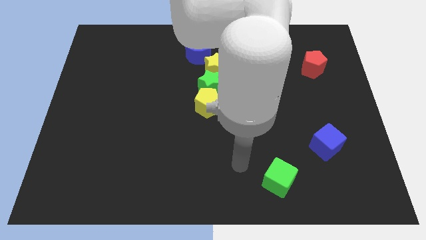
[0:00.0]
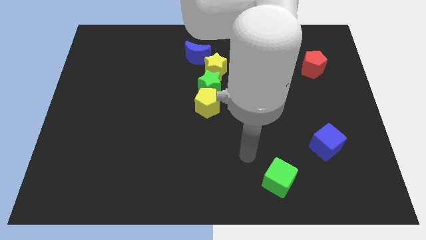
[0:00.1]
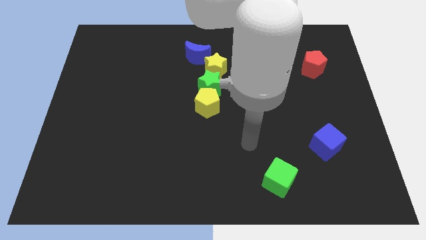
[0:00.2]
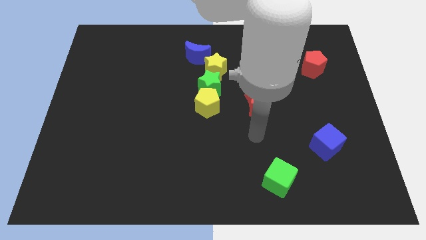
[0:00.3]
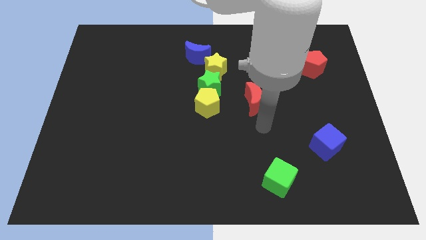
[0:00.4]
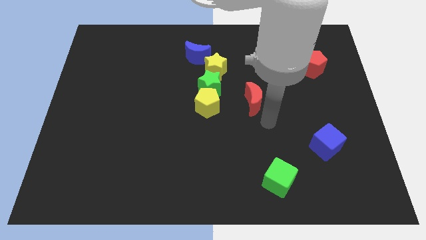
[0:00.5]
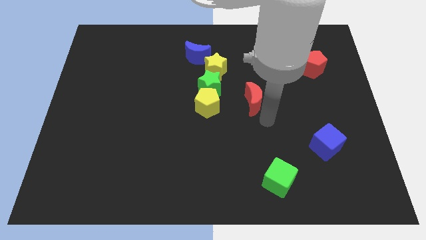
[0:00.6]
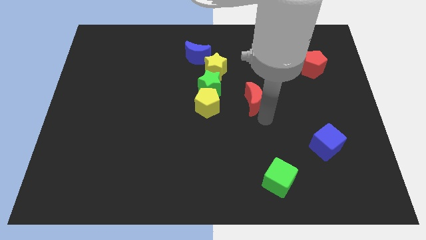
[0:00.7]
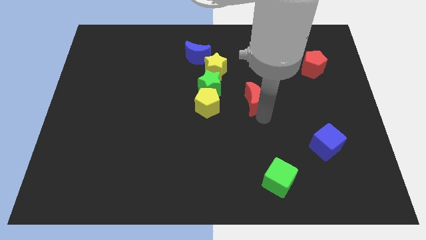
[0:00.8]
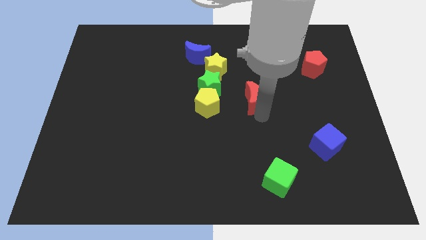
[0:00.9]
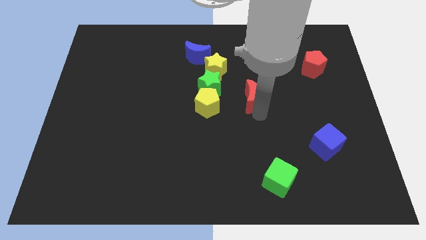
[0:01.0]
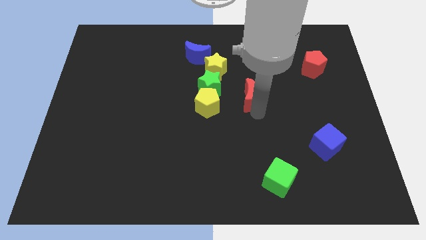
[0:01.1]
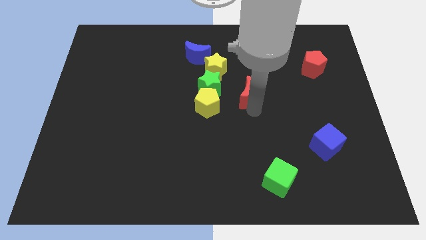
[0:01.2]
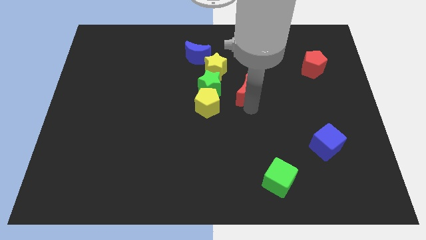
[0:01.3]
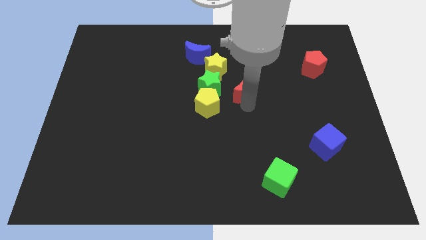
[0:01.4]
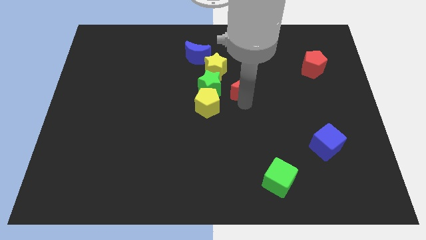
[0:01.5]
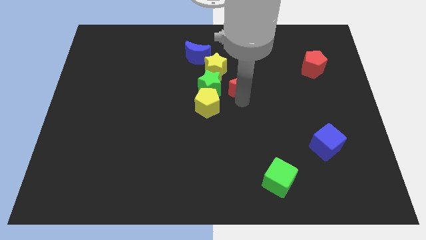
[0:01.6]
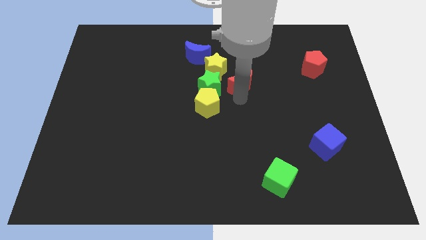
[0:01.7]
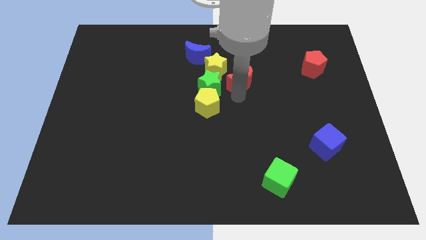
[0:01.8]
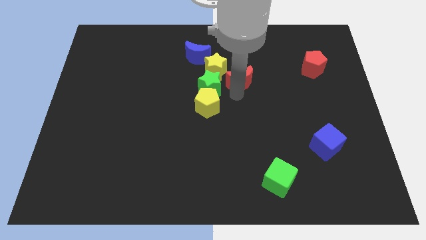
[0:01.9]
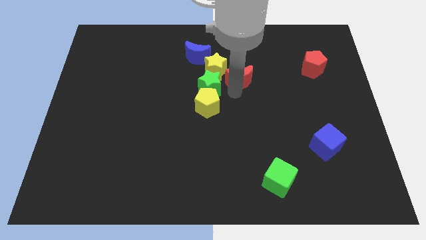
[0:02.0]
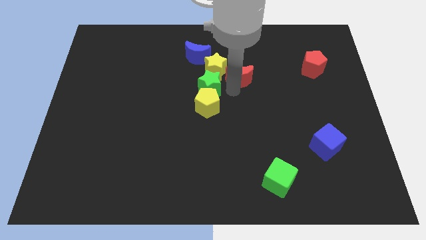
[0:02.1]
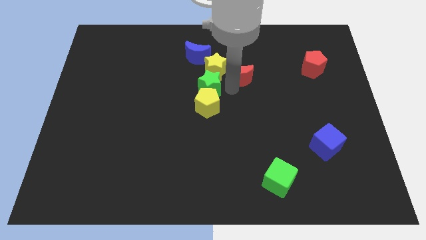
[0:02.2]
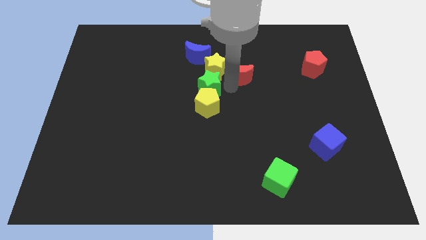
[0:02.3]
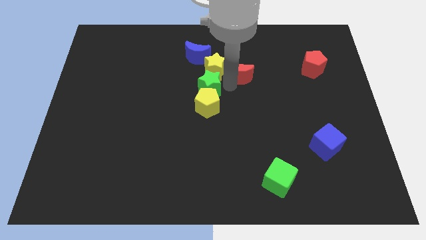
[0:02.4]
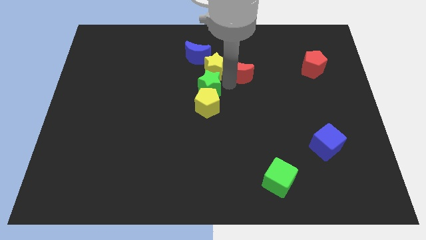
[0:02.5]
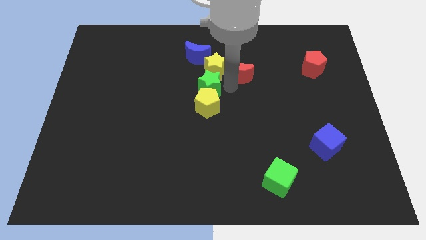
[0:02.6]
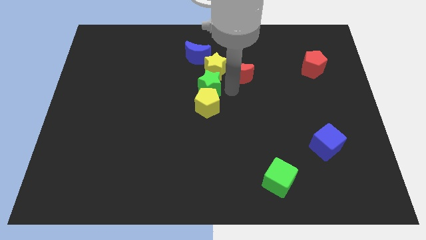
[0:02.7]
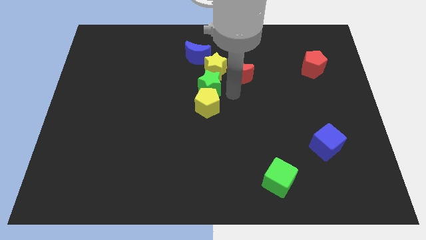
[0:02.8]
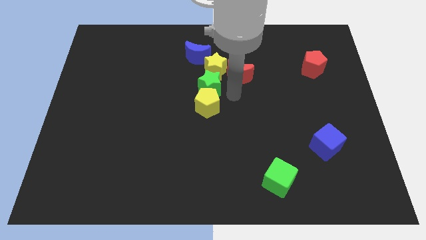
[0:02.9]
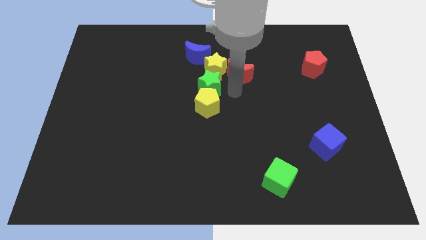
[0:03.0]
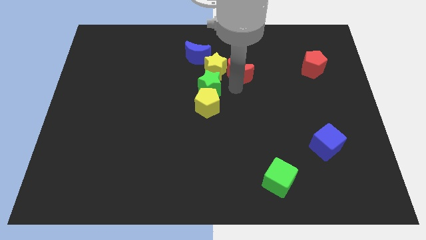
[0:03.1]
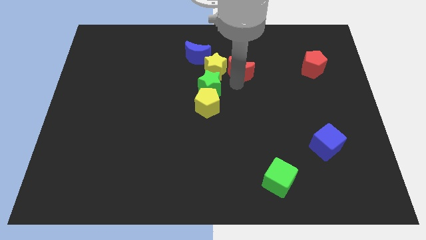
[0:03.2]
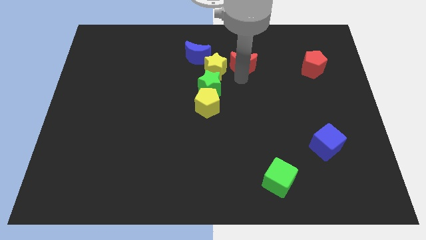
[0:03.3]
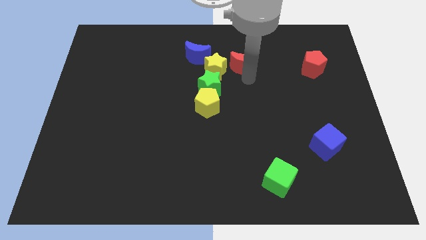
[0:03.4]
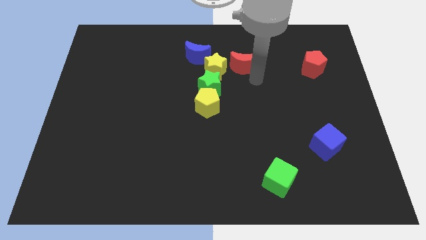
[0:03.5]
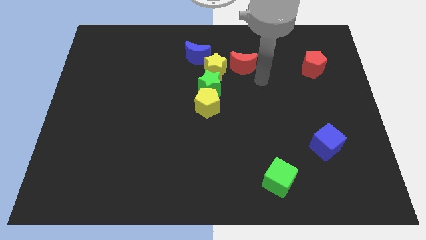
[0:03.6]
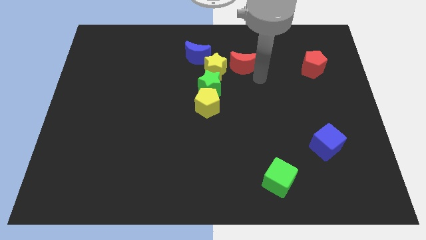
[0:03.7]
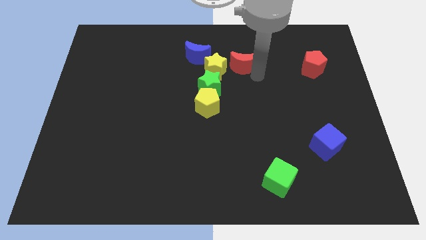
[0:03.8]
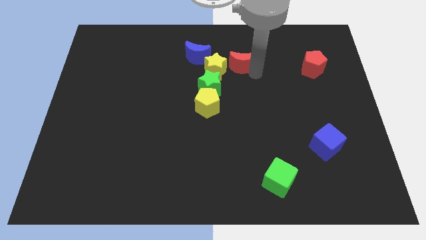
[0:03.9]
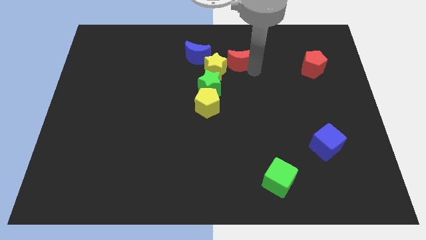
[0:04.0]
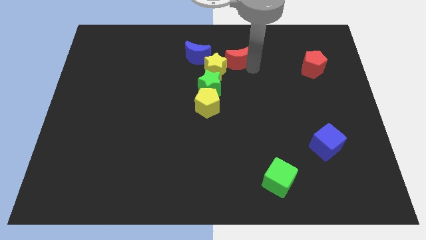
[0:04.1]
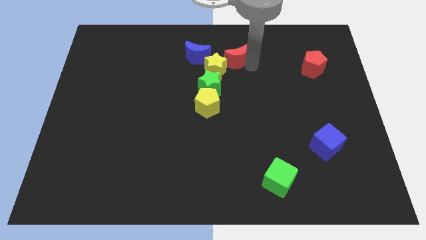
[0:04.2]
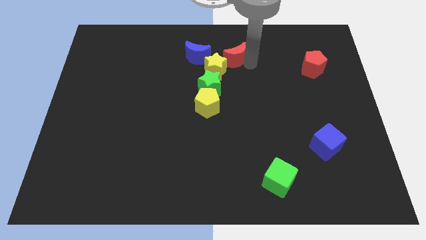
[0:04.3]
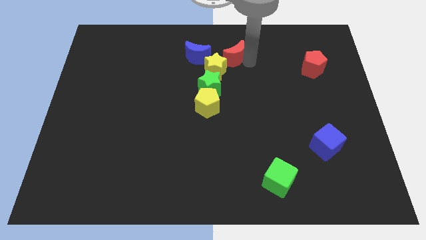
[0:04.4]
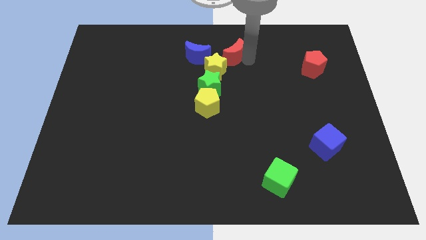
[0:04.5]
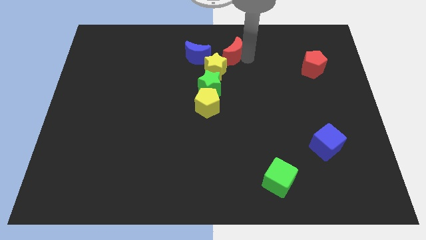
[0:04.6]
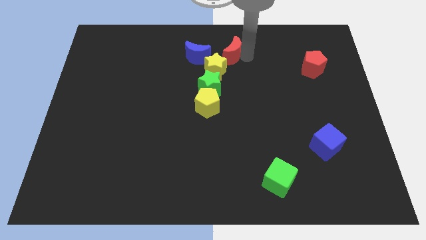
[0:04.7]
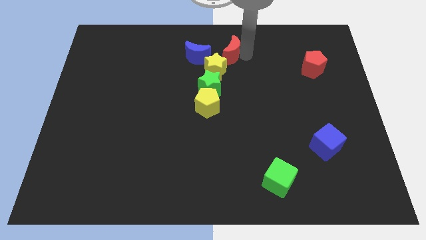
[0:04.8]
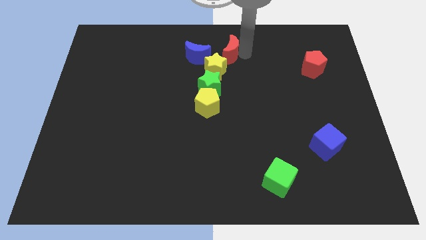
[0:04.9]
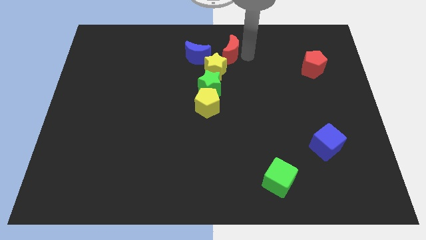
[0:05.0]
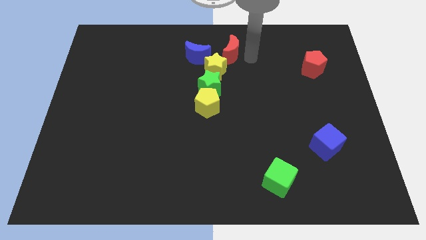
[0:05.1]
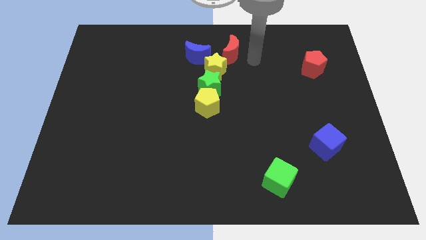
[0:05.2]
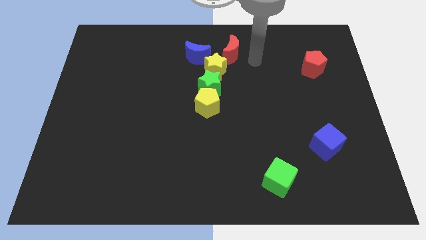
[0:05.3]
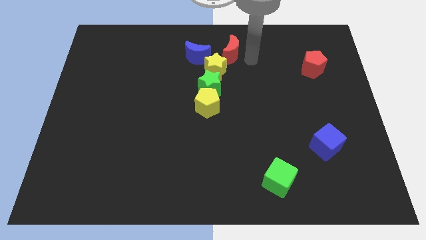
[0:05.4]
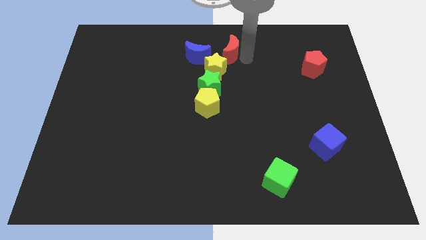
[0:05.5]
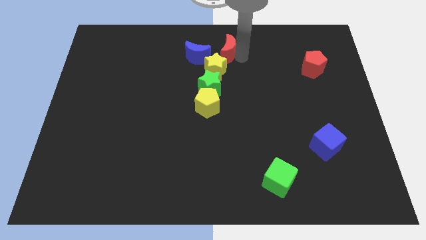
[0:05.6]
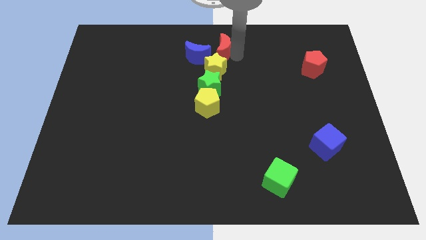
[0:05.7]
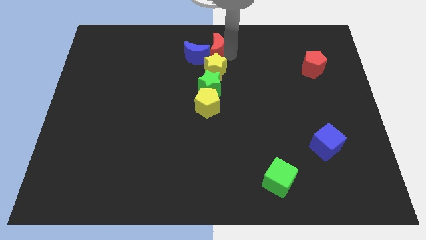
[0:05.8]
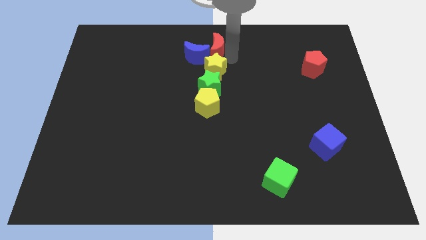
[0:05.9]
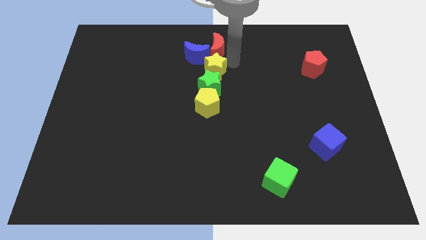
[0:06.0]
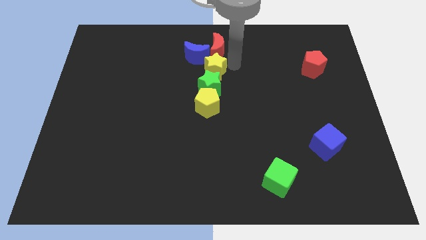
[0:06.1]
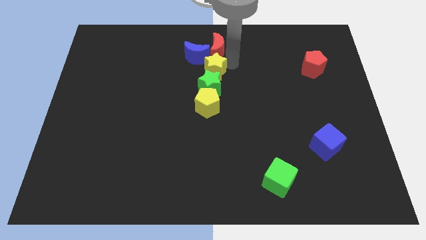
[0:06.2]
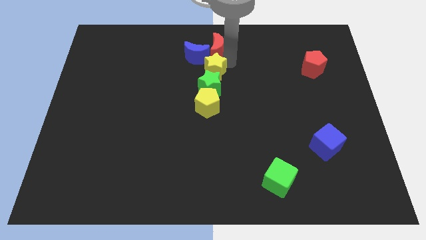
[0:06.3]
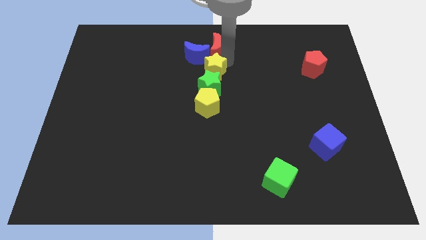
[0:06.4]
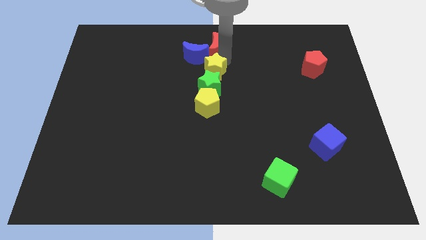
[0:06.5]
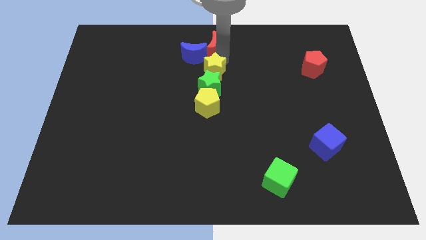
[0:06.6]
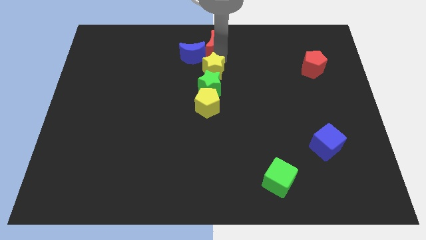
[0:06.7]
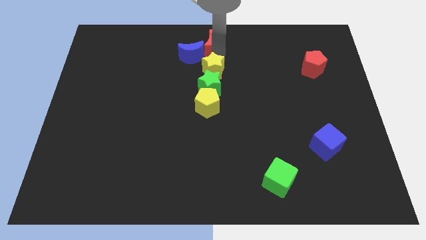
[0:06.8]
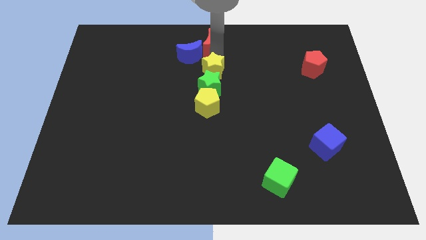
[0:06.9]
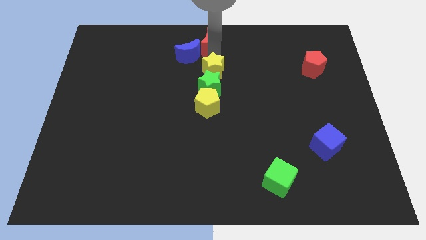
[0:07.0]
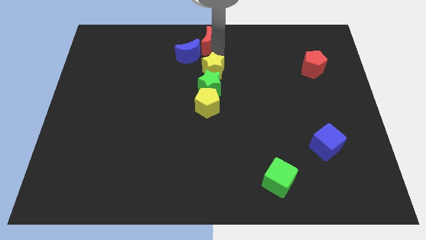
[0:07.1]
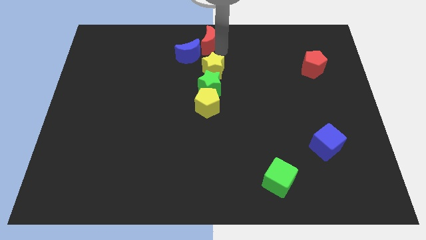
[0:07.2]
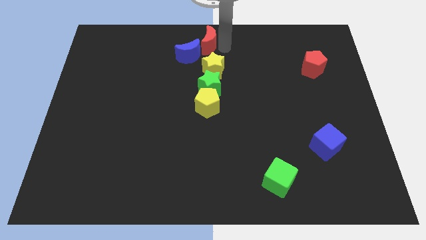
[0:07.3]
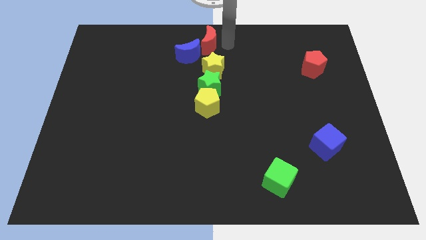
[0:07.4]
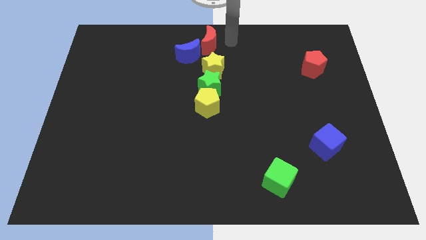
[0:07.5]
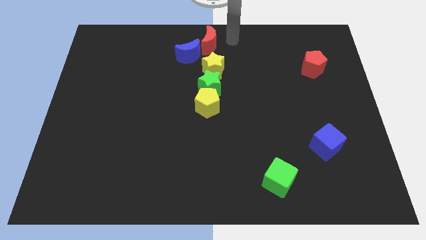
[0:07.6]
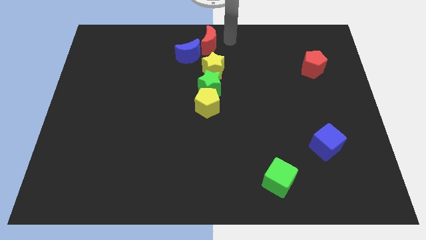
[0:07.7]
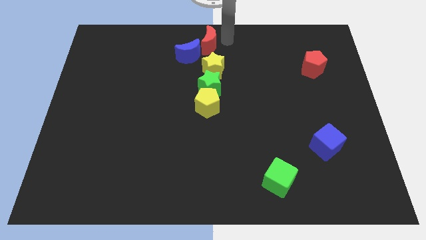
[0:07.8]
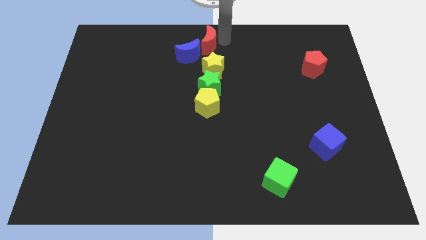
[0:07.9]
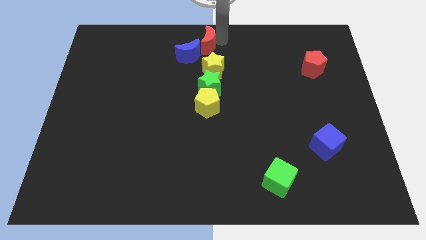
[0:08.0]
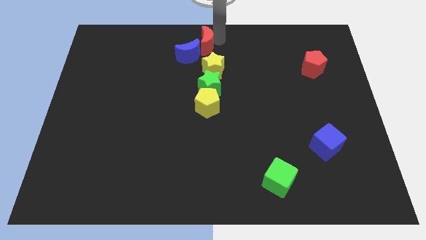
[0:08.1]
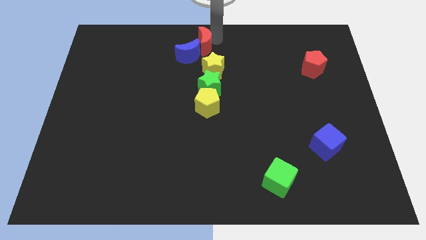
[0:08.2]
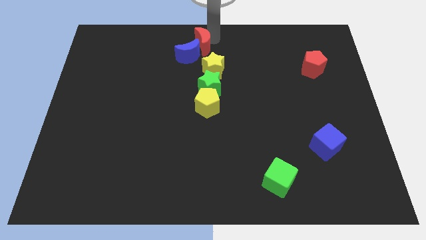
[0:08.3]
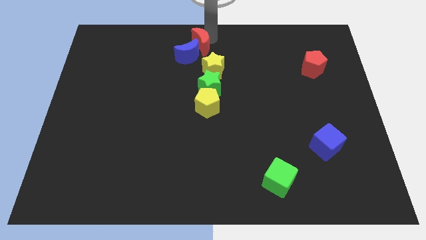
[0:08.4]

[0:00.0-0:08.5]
put the red moon diagonally up and to the left of the yellow star
